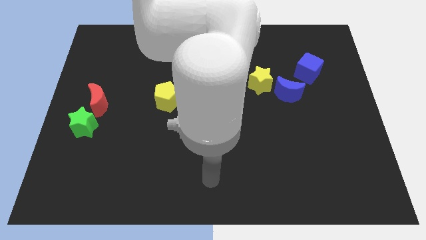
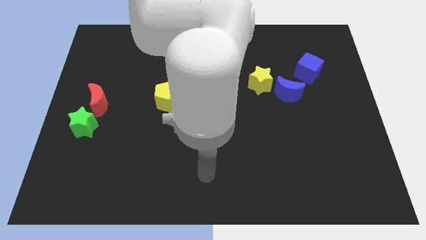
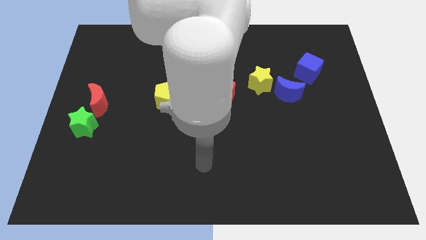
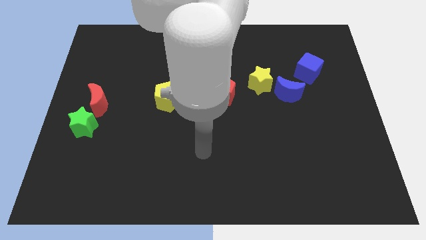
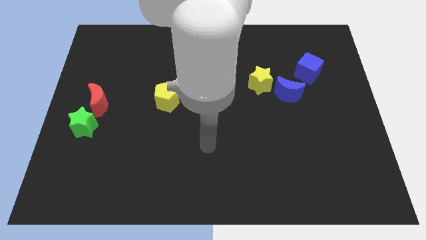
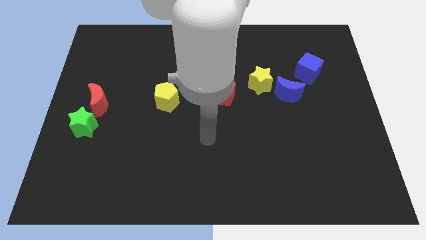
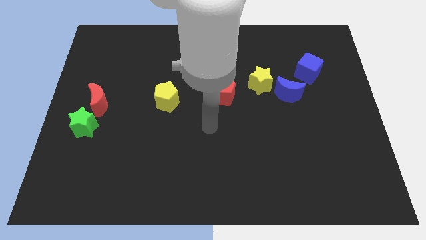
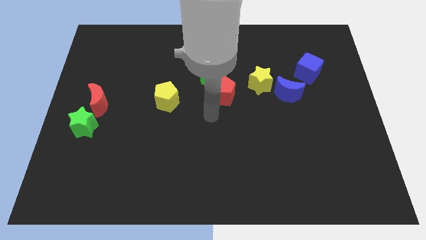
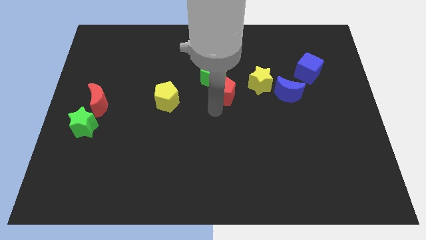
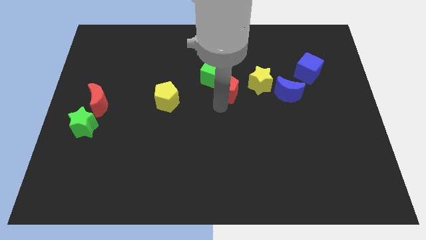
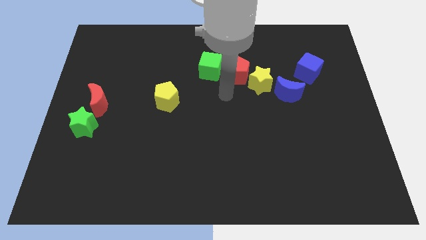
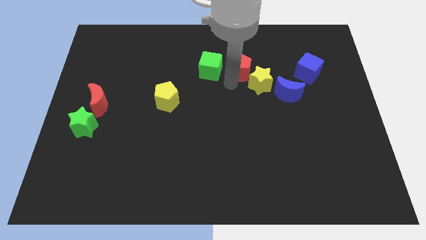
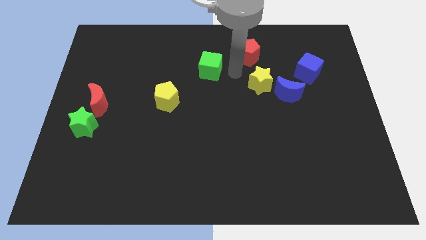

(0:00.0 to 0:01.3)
move the green cube away from the red pentagon

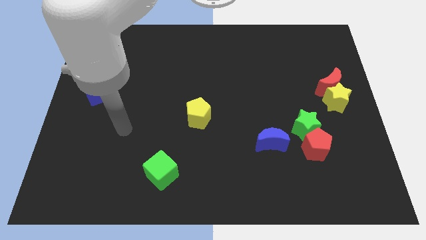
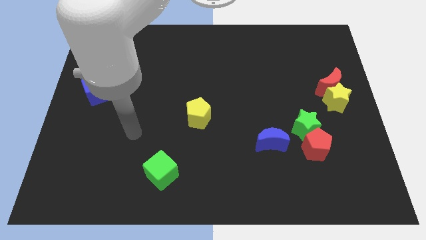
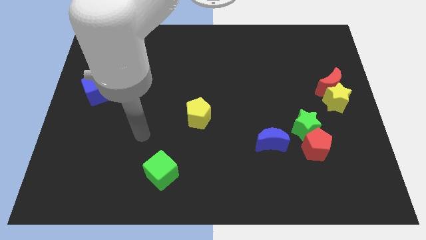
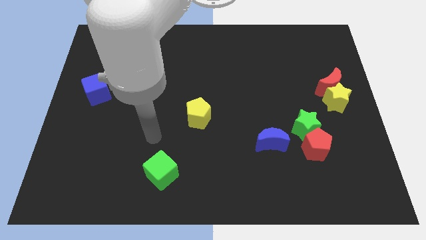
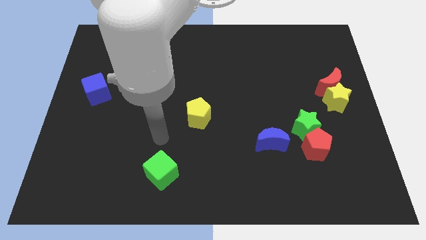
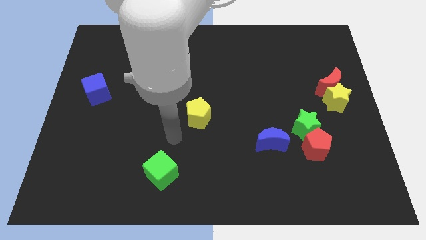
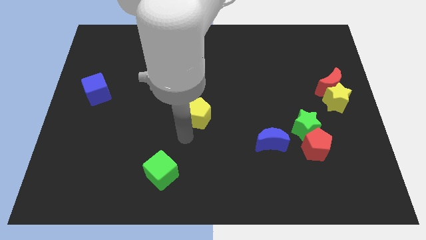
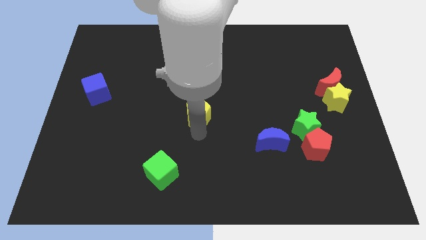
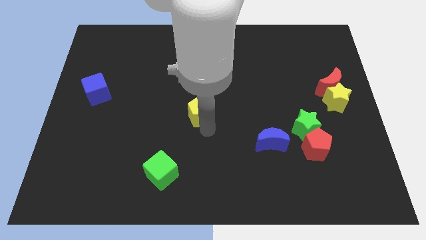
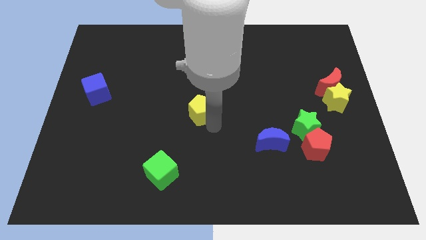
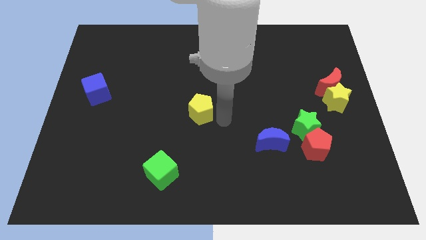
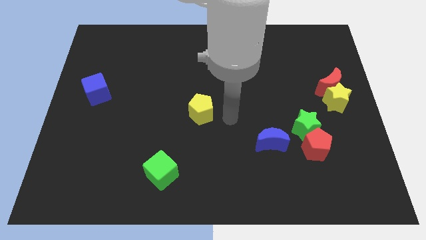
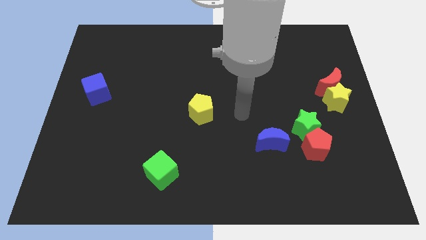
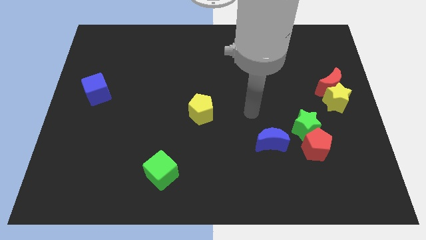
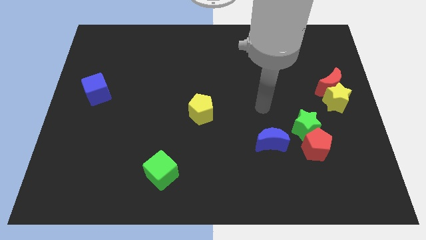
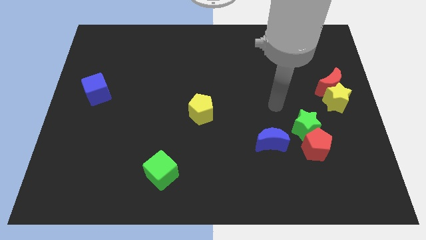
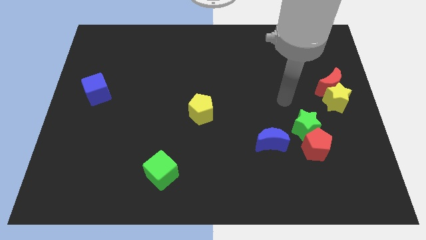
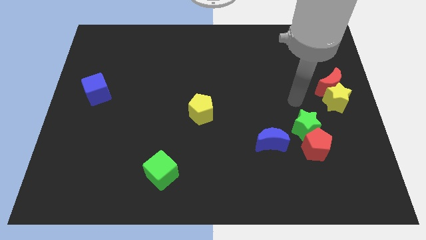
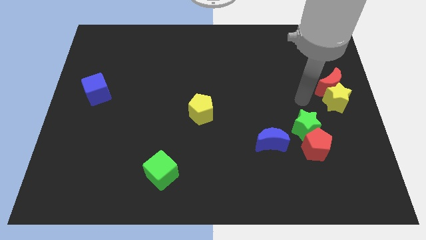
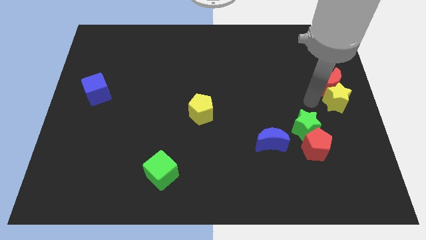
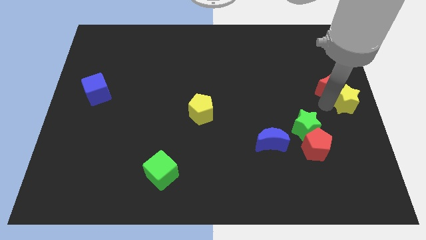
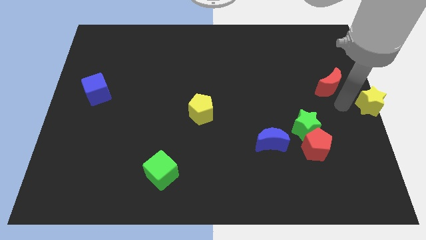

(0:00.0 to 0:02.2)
separate the red moon from the yellow star

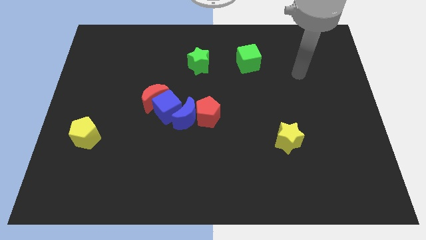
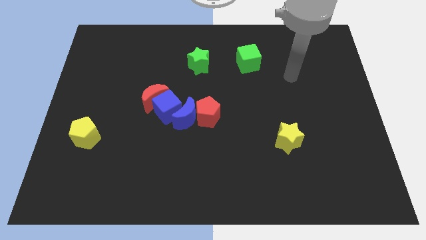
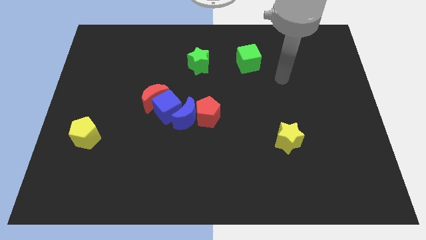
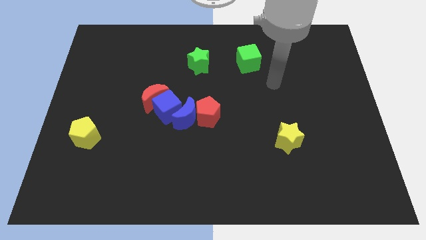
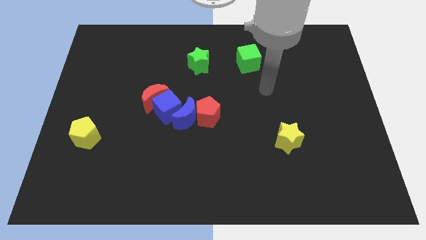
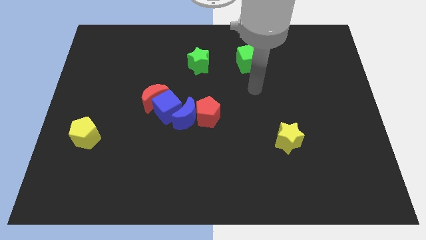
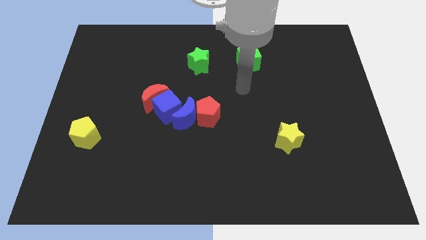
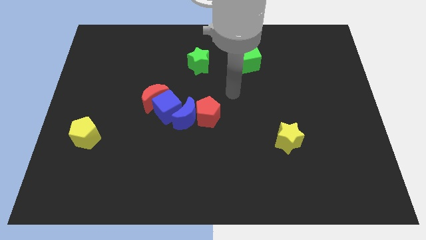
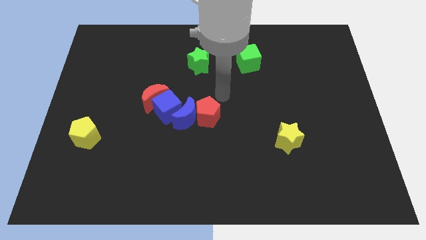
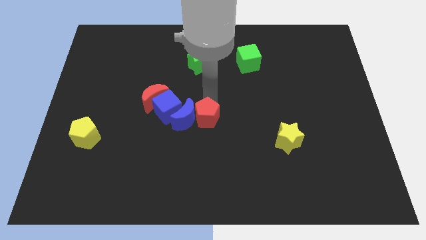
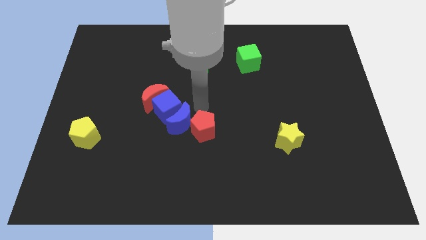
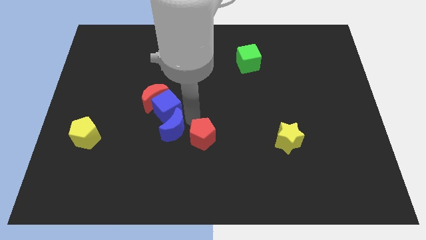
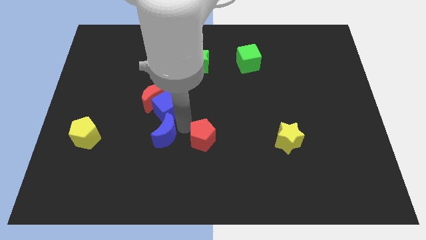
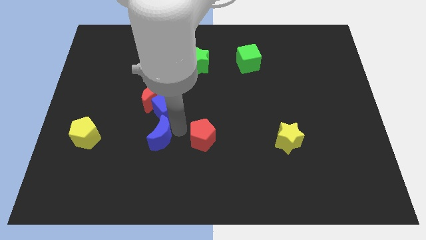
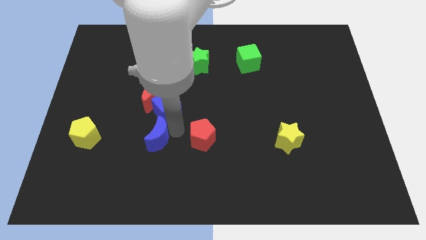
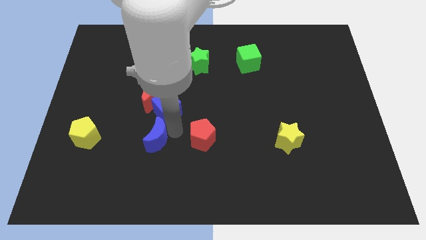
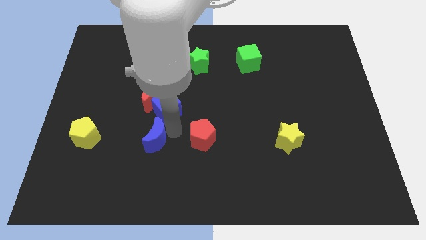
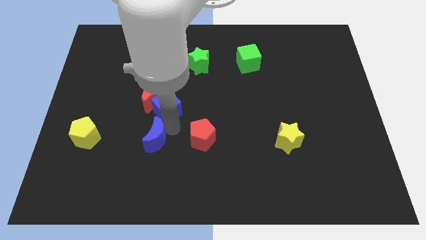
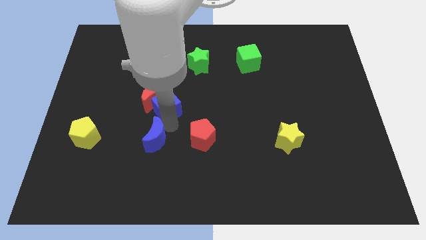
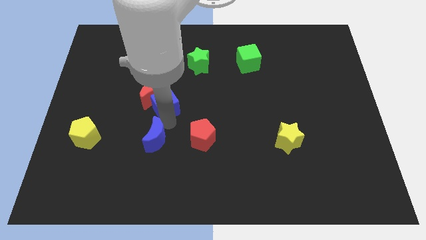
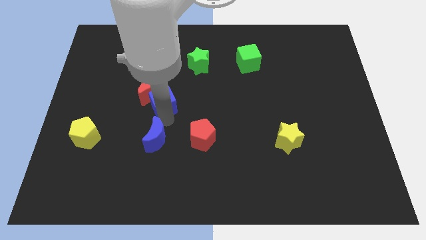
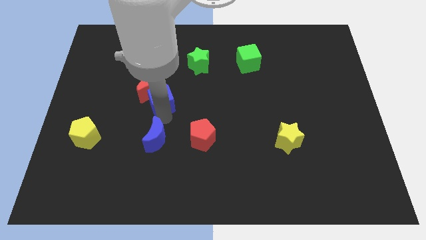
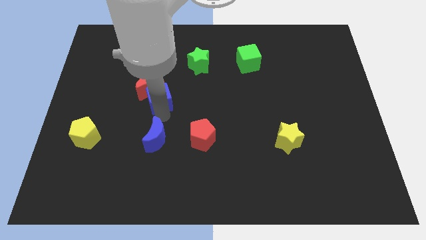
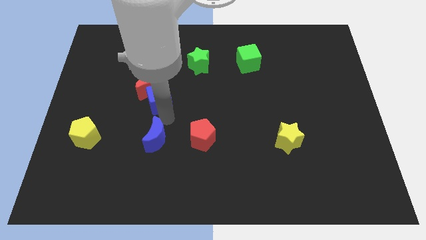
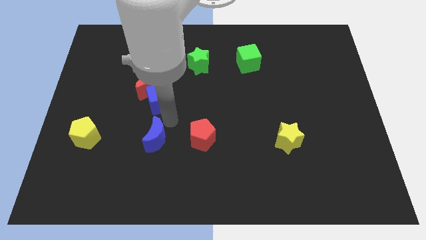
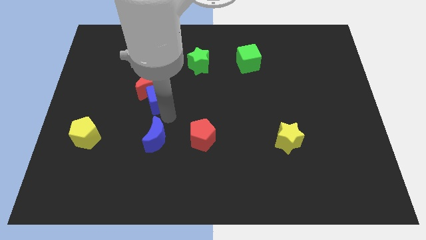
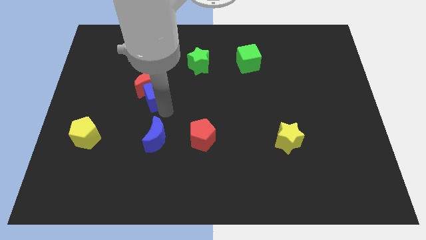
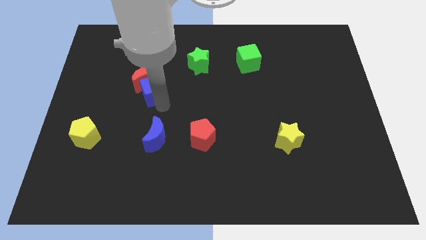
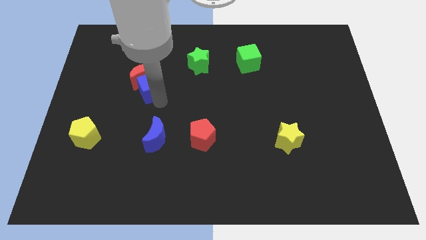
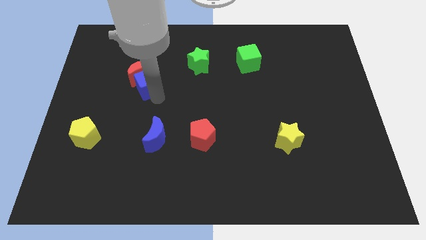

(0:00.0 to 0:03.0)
separate the blue cube from the red moon, blue moon, and red pentagon

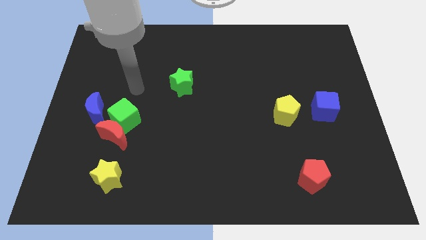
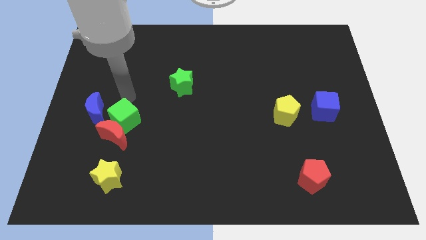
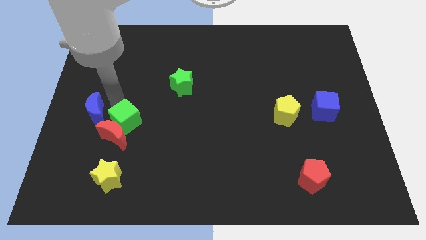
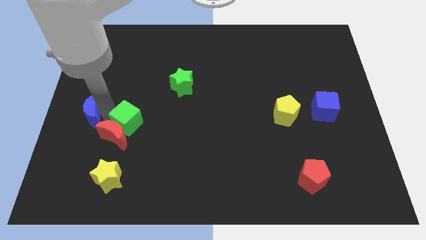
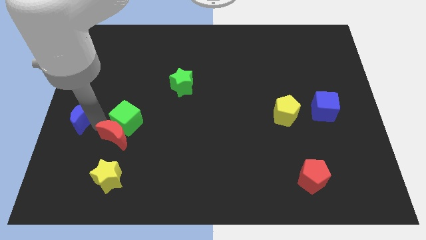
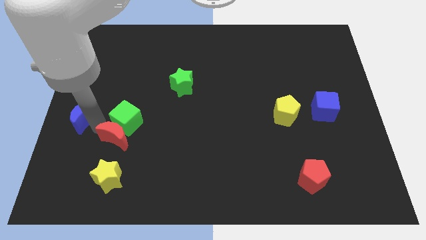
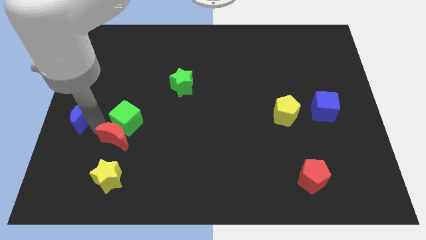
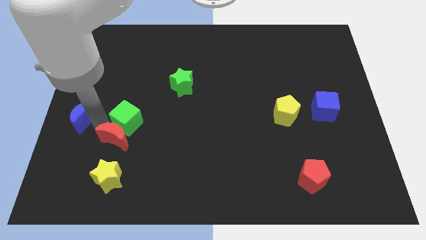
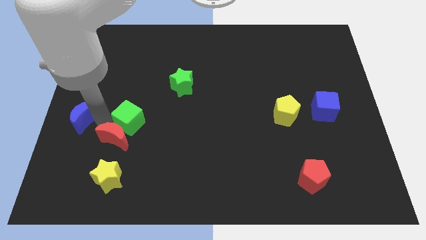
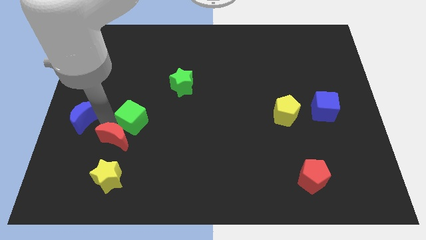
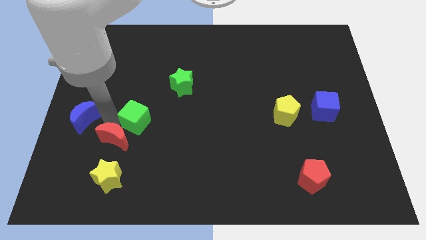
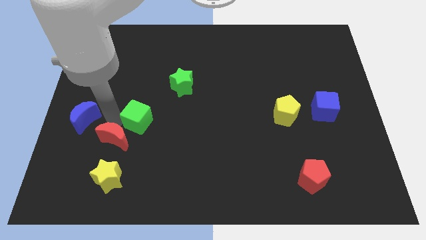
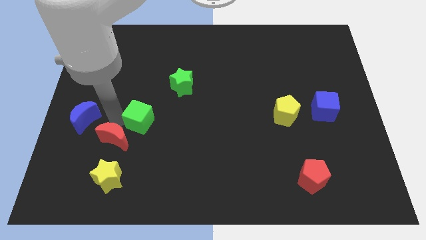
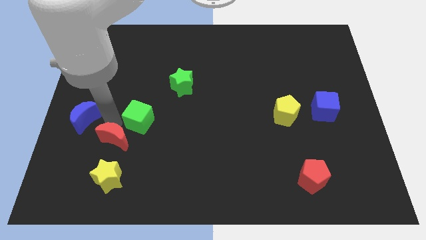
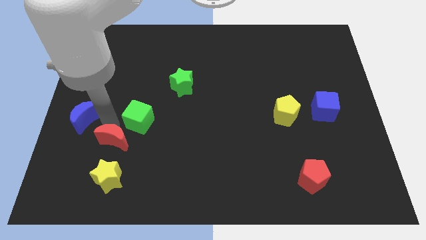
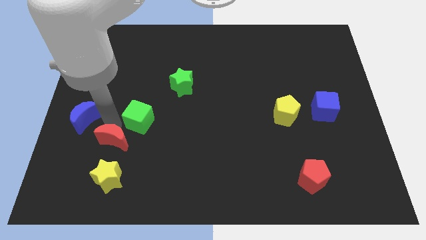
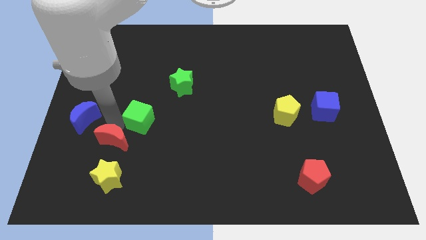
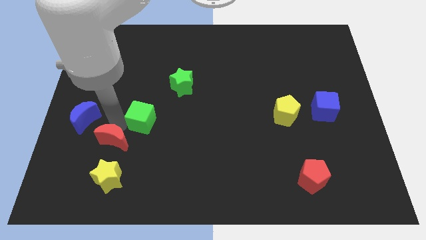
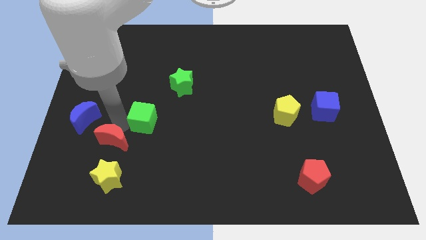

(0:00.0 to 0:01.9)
separate the green cube from the red moon and blue moon

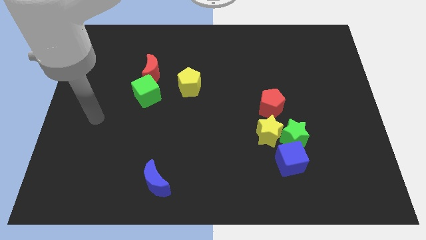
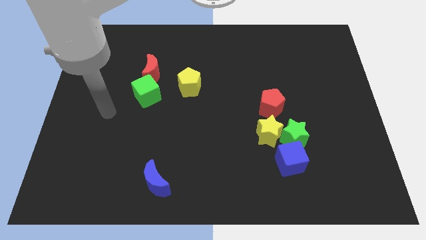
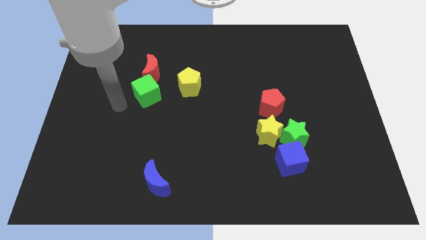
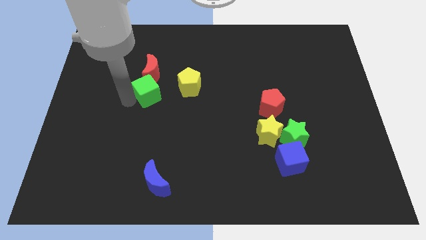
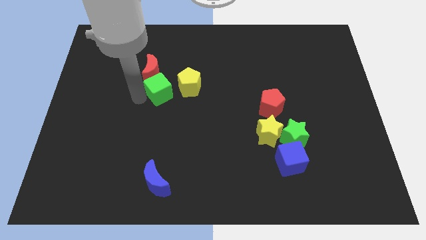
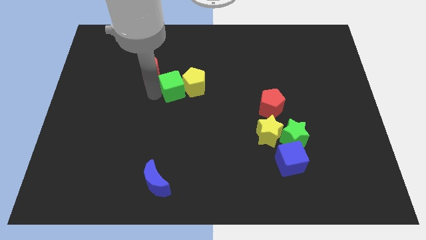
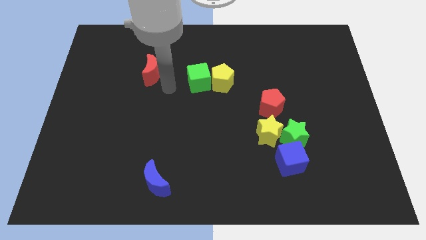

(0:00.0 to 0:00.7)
pull the red moon apart from the green cube
